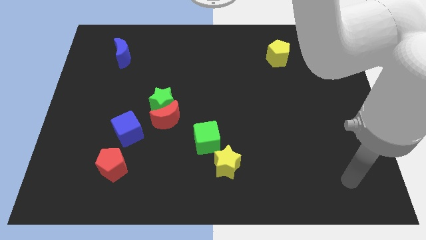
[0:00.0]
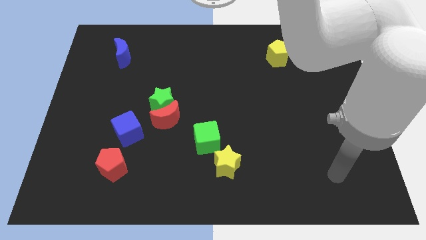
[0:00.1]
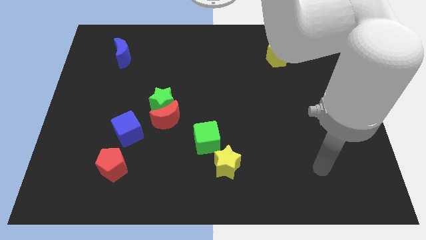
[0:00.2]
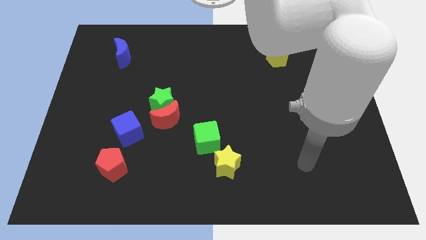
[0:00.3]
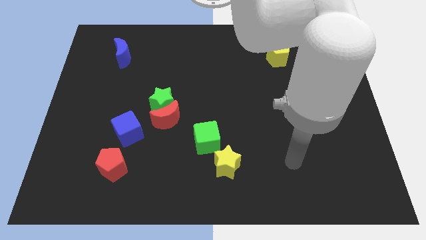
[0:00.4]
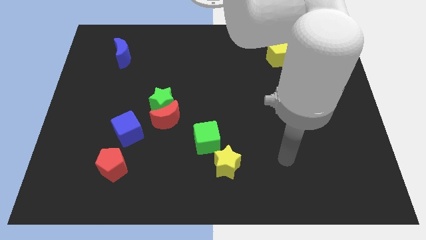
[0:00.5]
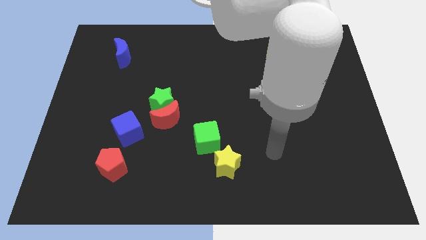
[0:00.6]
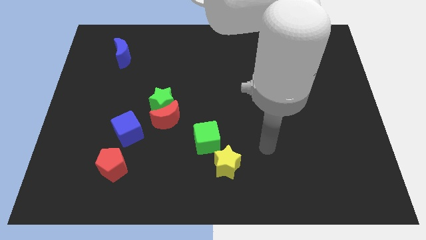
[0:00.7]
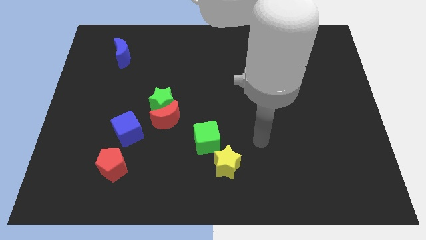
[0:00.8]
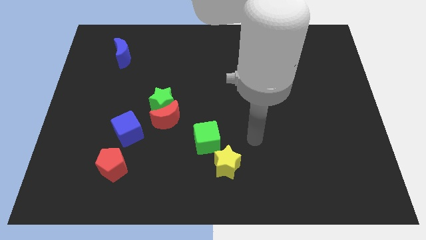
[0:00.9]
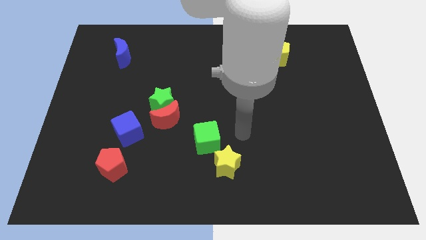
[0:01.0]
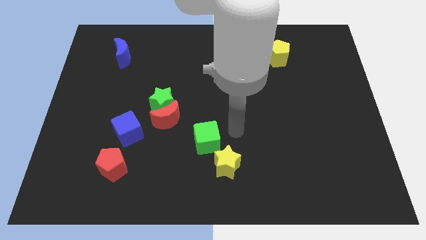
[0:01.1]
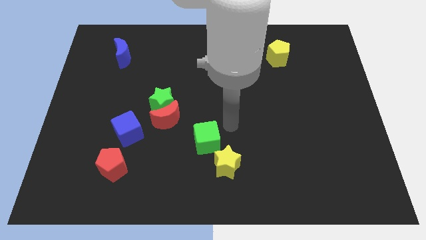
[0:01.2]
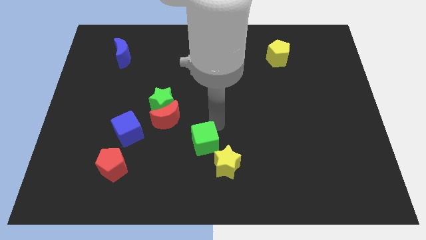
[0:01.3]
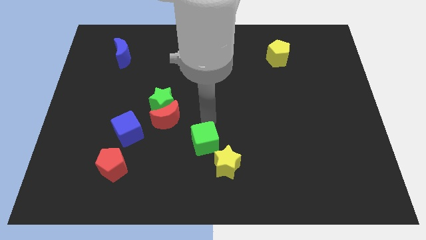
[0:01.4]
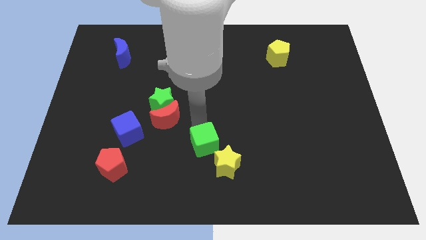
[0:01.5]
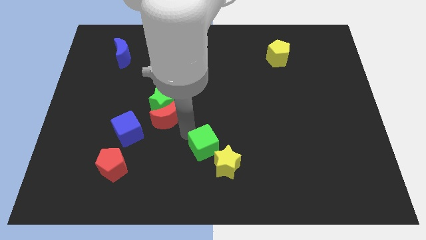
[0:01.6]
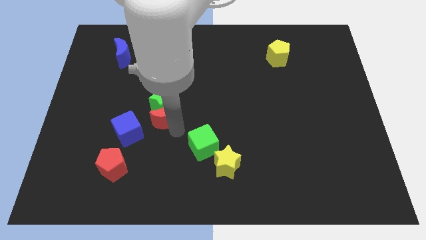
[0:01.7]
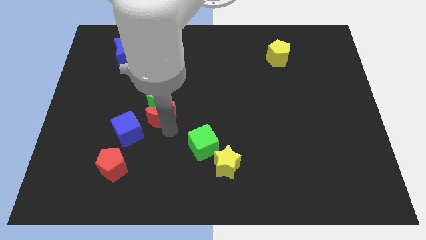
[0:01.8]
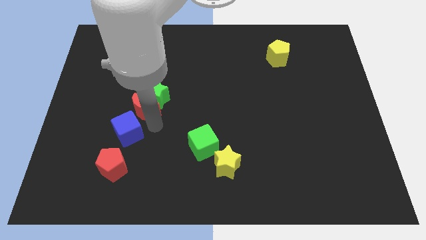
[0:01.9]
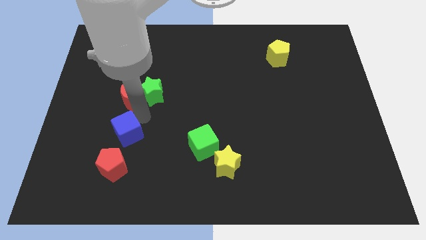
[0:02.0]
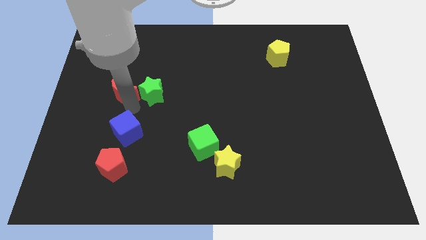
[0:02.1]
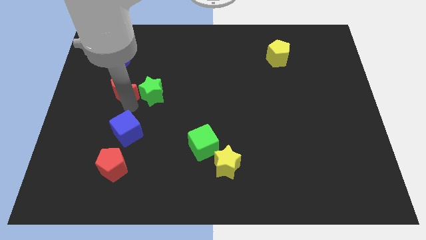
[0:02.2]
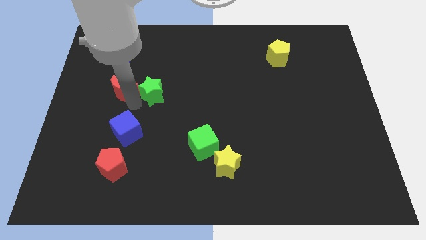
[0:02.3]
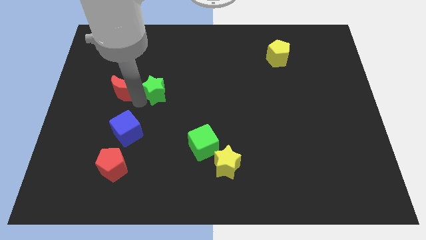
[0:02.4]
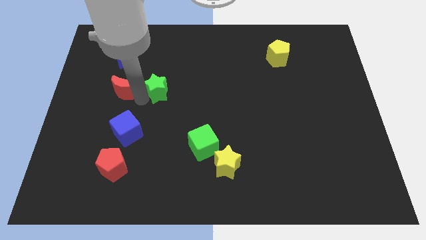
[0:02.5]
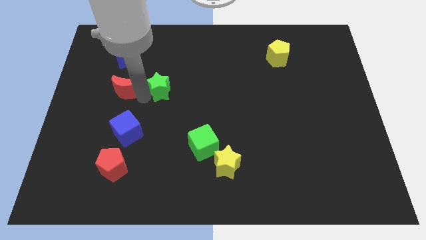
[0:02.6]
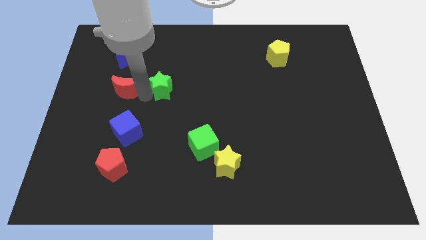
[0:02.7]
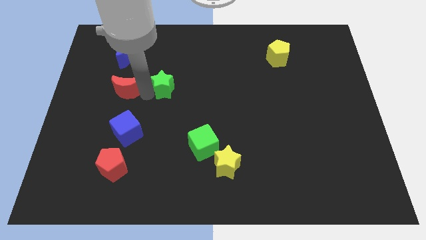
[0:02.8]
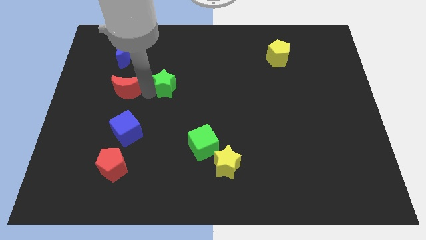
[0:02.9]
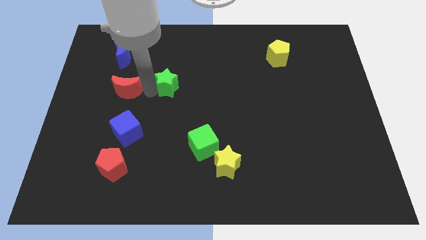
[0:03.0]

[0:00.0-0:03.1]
move the green star away from the red moon

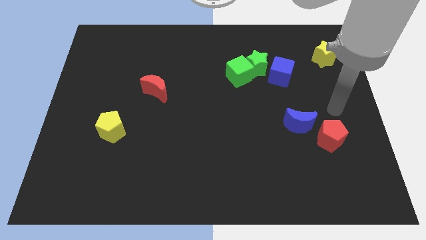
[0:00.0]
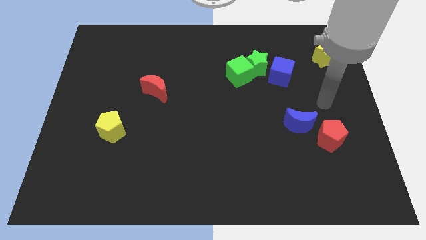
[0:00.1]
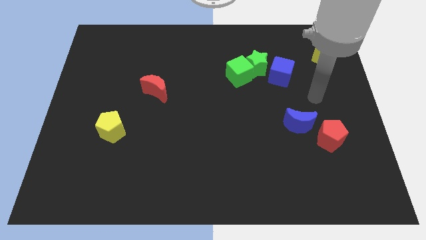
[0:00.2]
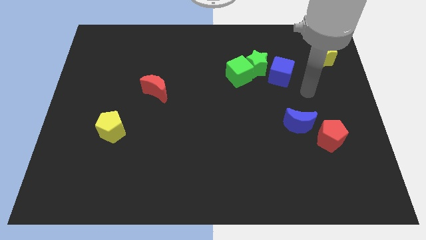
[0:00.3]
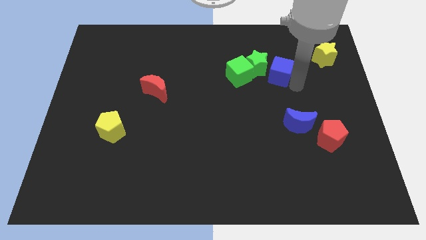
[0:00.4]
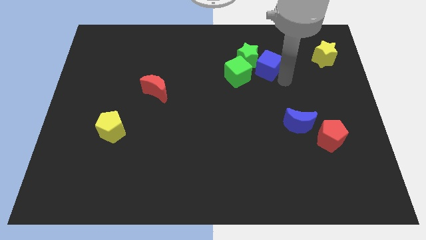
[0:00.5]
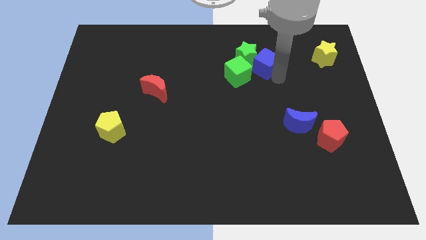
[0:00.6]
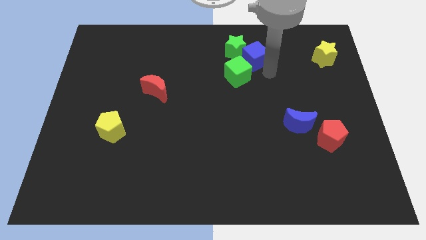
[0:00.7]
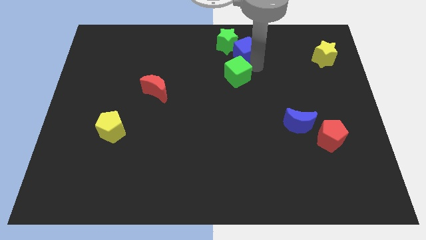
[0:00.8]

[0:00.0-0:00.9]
pull the green cube apart from the green star

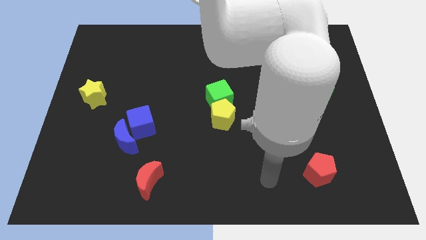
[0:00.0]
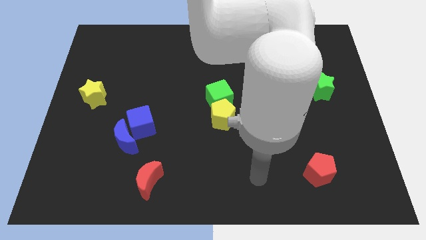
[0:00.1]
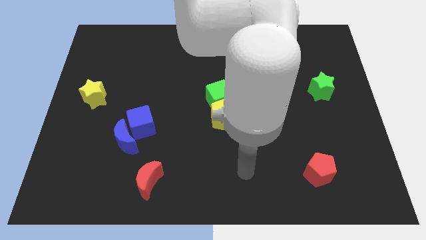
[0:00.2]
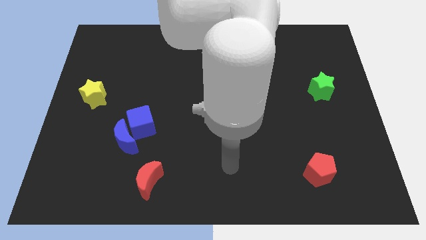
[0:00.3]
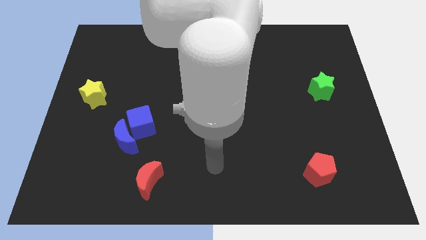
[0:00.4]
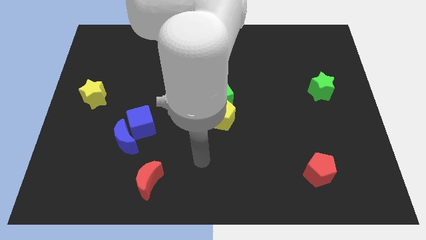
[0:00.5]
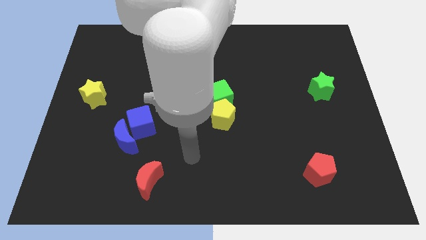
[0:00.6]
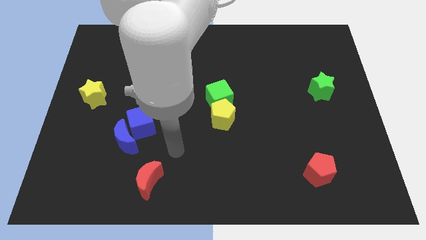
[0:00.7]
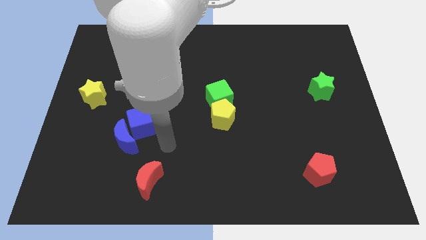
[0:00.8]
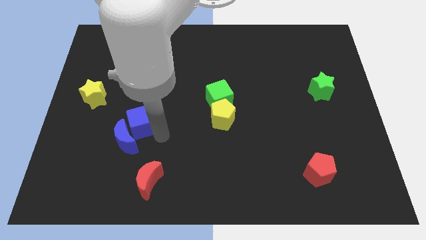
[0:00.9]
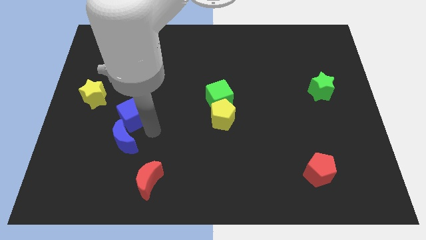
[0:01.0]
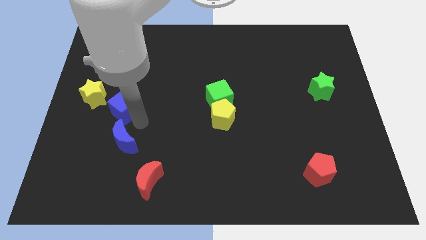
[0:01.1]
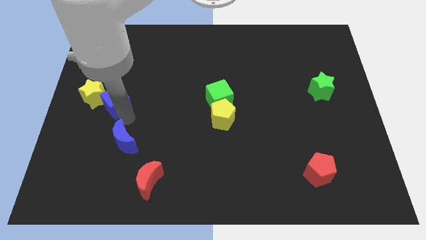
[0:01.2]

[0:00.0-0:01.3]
separate the blue moon from the blue cube

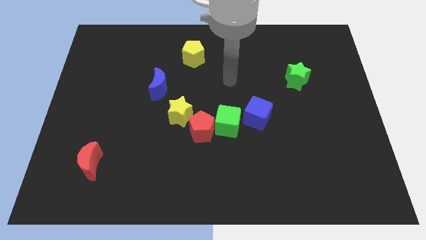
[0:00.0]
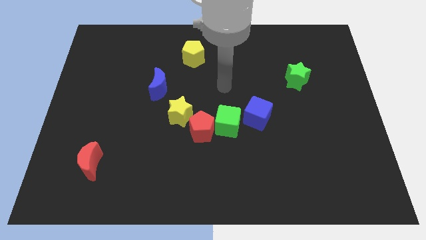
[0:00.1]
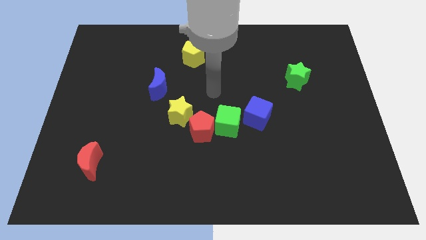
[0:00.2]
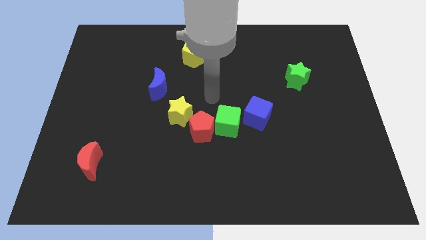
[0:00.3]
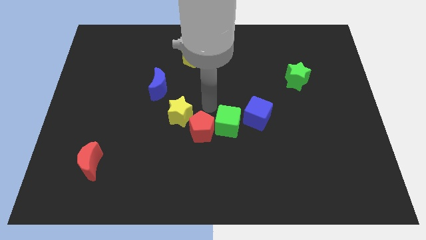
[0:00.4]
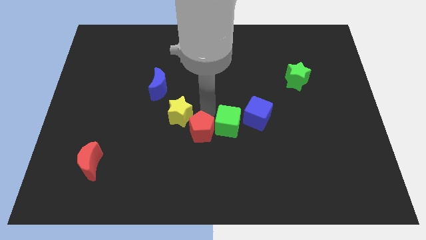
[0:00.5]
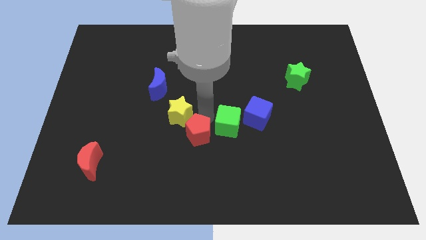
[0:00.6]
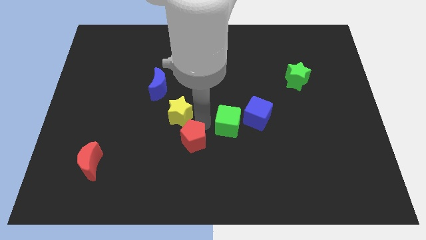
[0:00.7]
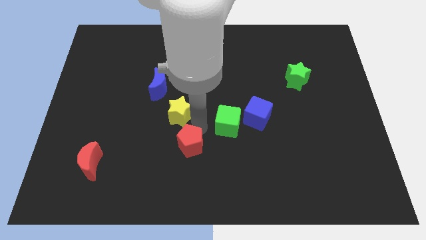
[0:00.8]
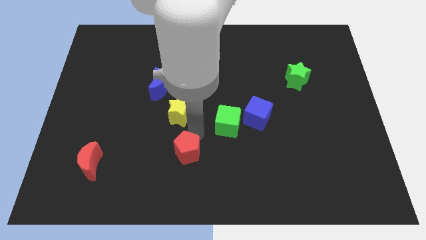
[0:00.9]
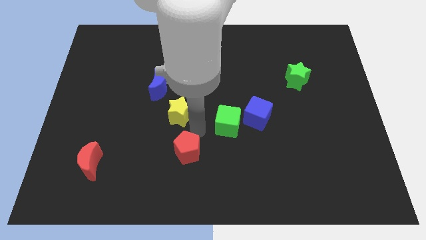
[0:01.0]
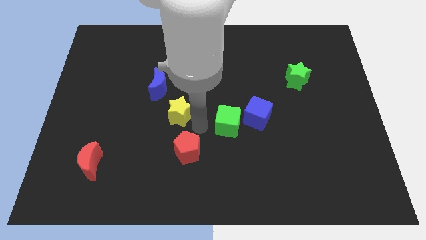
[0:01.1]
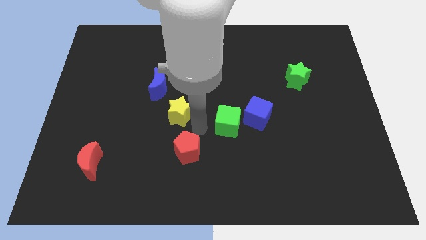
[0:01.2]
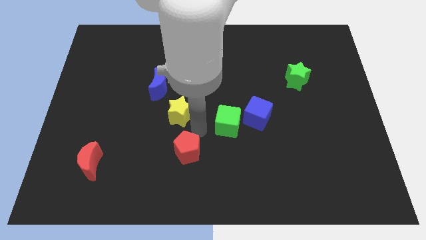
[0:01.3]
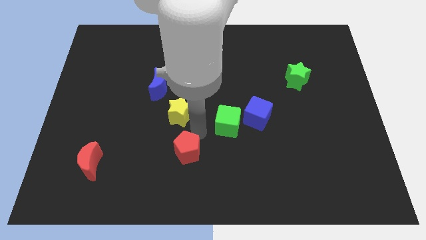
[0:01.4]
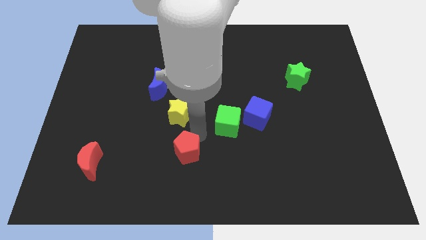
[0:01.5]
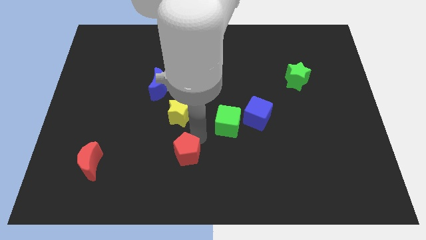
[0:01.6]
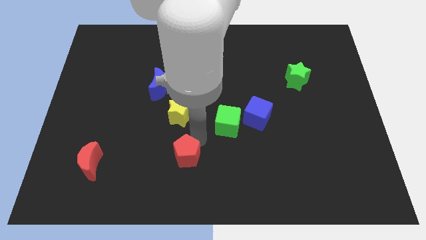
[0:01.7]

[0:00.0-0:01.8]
move the red pentagon away from the green cube and yellow star

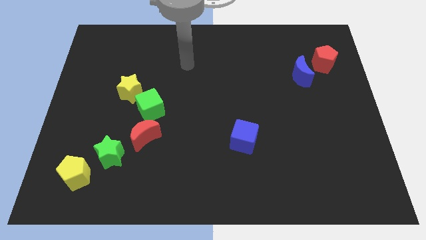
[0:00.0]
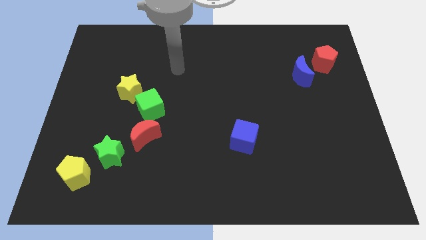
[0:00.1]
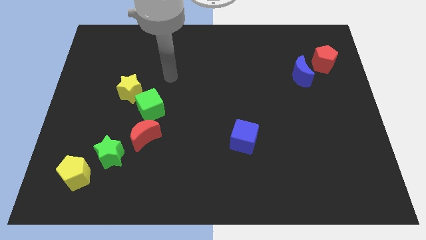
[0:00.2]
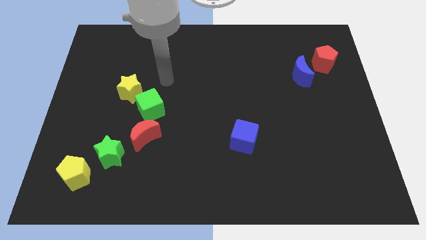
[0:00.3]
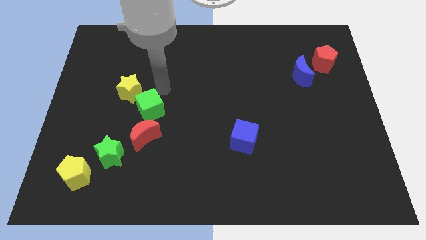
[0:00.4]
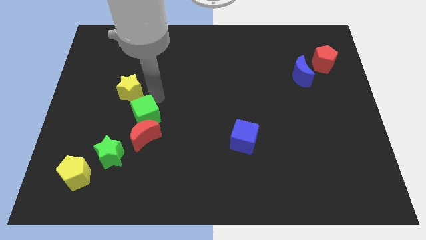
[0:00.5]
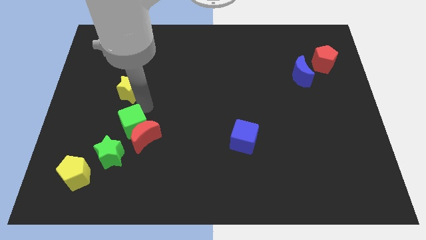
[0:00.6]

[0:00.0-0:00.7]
move the yellow star away from the green cube

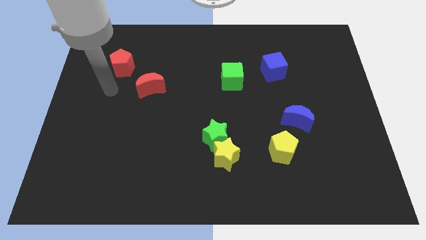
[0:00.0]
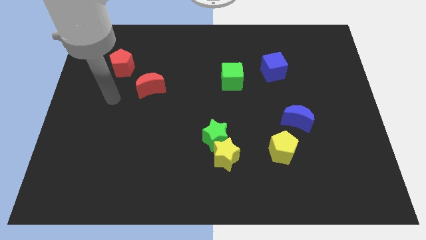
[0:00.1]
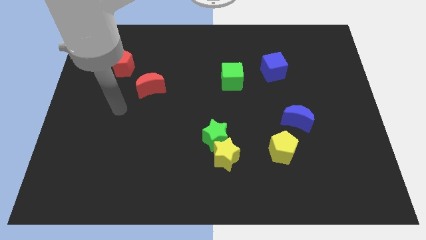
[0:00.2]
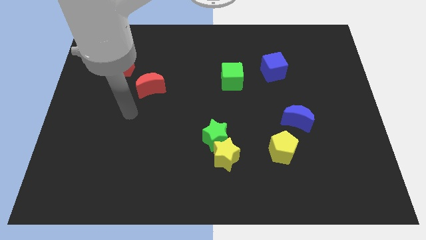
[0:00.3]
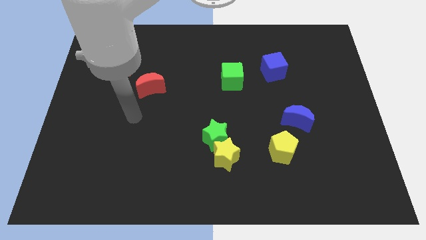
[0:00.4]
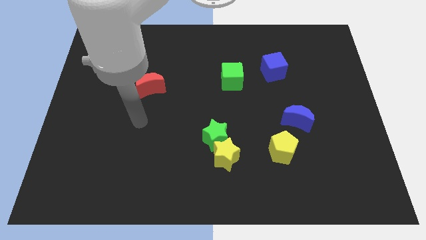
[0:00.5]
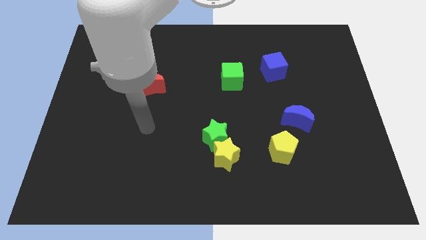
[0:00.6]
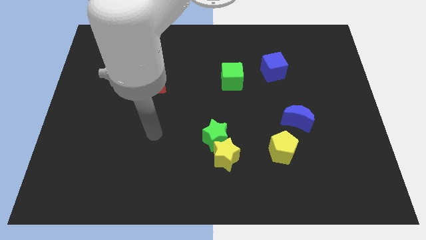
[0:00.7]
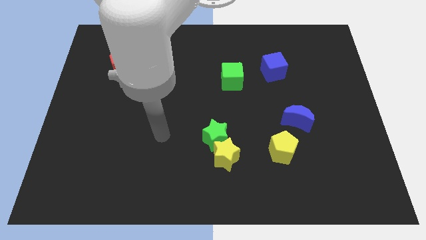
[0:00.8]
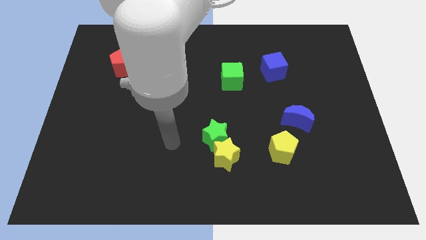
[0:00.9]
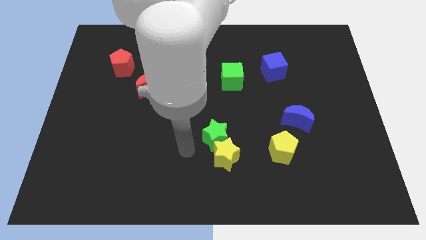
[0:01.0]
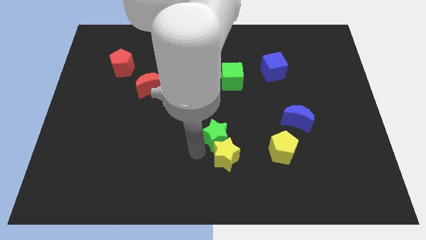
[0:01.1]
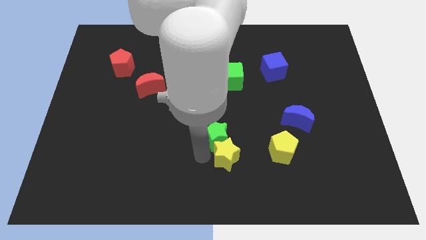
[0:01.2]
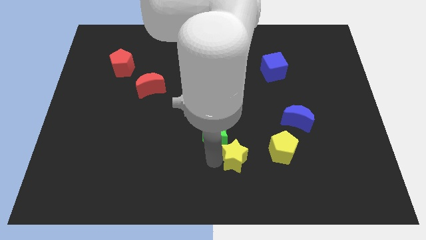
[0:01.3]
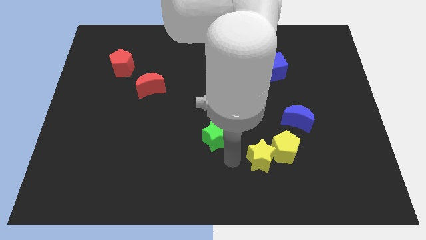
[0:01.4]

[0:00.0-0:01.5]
move the green star away from the yellow star
